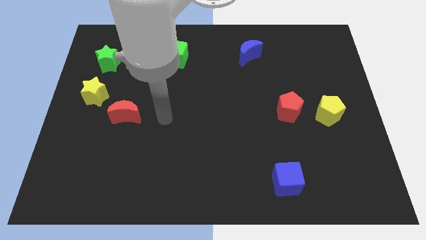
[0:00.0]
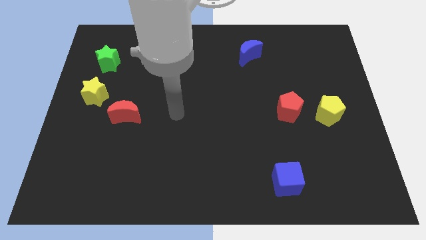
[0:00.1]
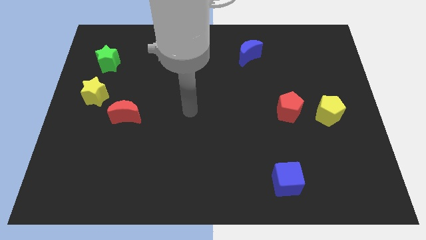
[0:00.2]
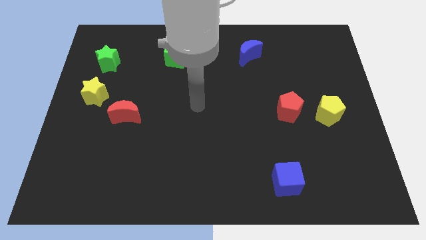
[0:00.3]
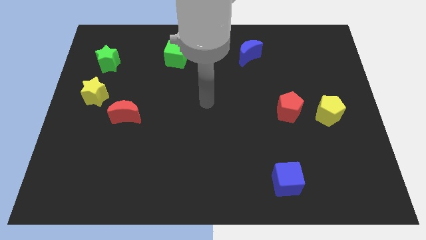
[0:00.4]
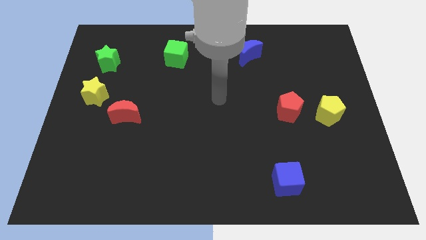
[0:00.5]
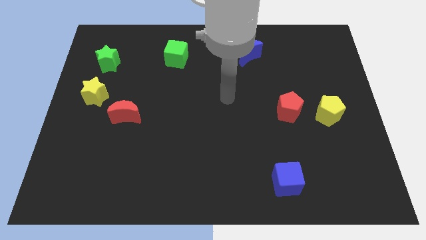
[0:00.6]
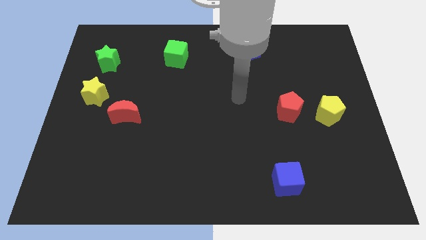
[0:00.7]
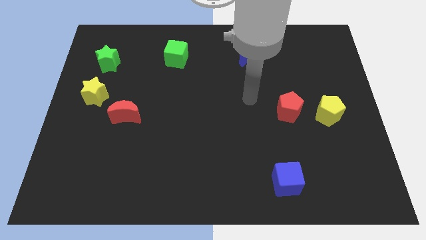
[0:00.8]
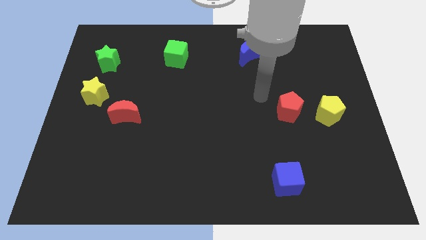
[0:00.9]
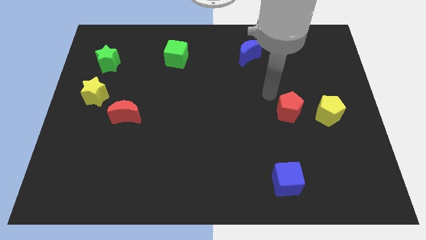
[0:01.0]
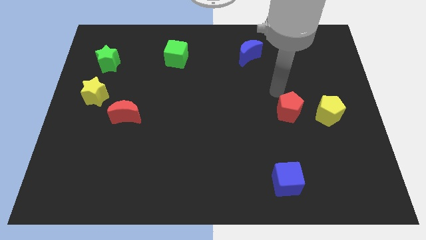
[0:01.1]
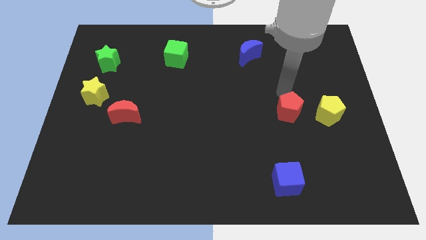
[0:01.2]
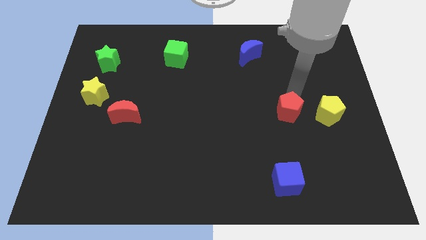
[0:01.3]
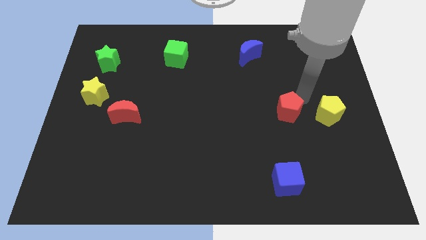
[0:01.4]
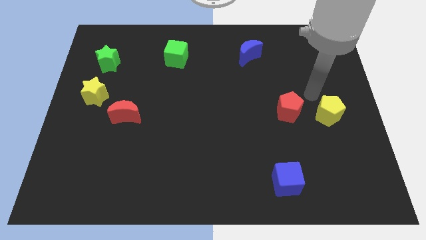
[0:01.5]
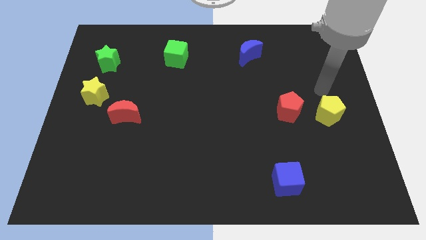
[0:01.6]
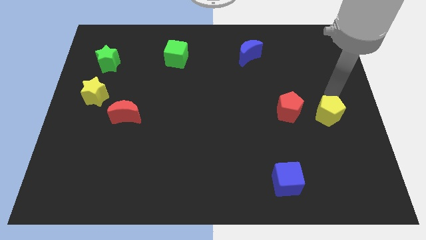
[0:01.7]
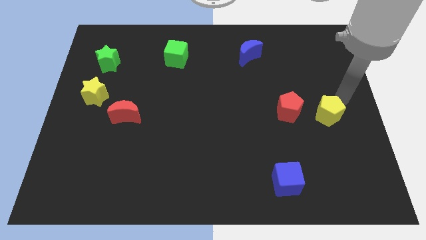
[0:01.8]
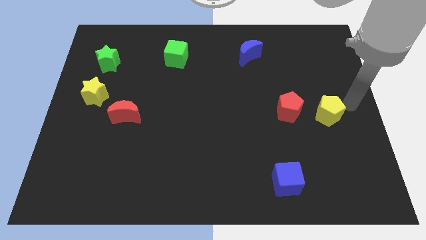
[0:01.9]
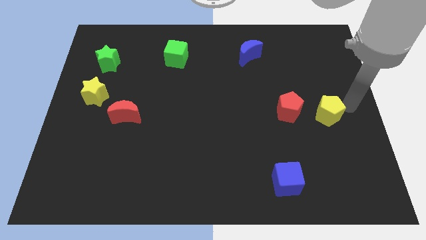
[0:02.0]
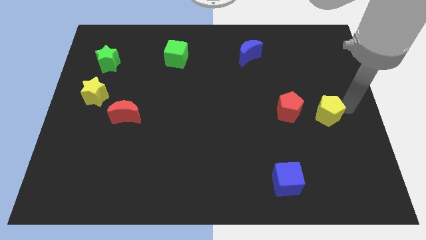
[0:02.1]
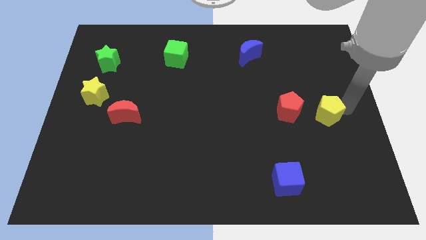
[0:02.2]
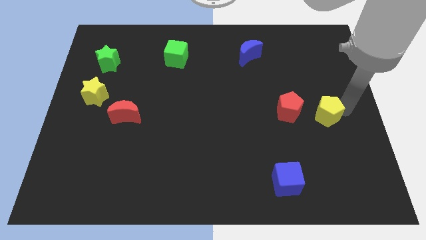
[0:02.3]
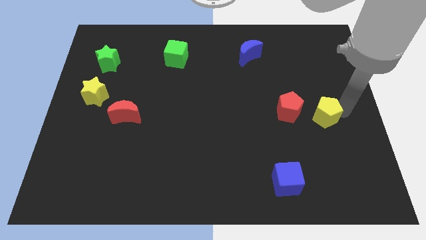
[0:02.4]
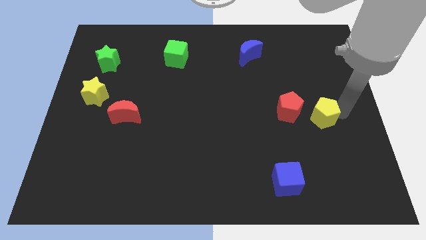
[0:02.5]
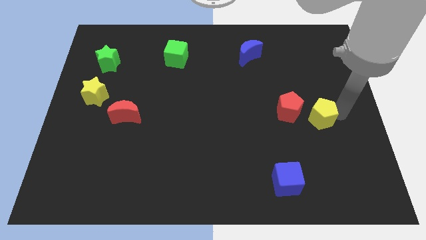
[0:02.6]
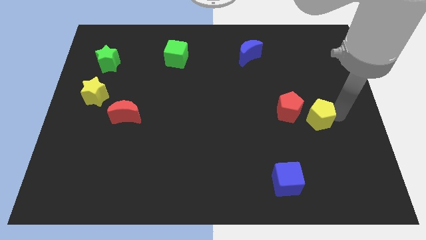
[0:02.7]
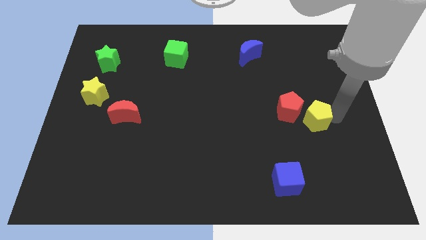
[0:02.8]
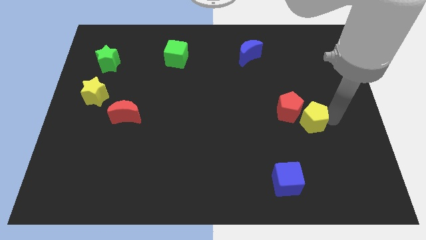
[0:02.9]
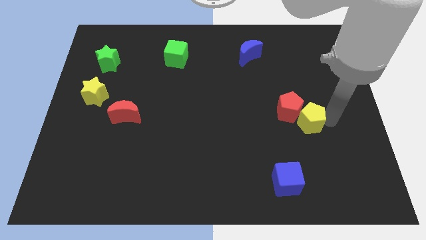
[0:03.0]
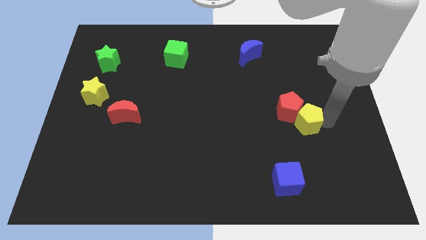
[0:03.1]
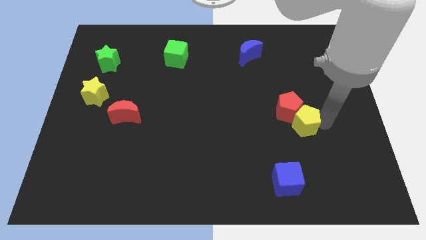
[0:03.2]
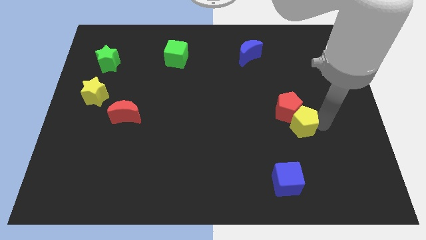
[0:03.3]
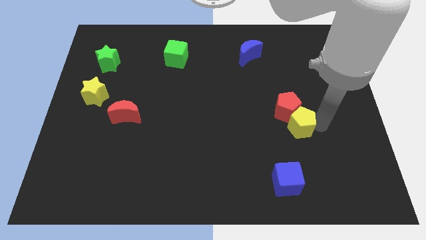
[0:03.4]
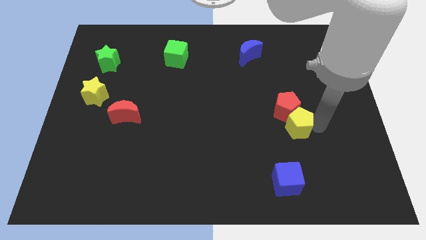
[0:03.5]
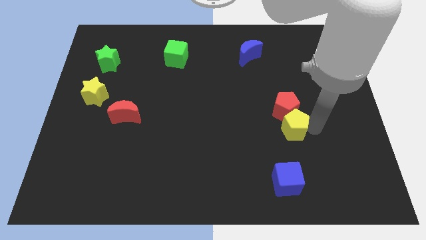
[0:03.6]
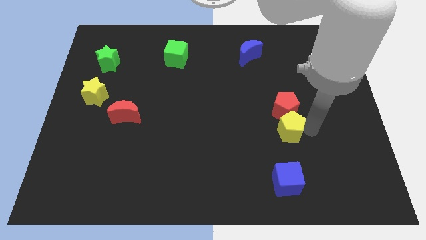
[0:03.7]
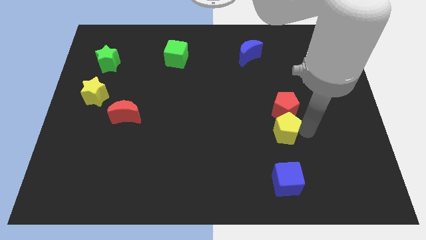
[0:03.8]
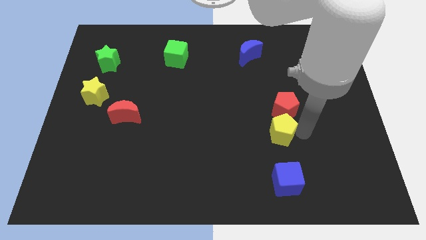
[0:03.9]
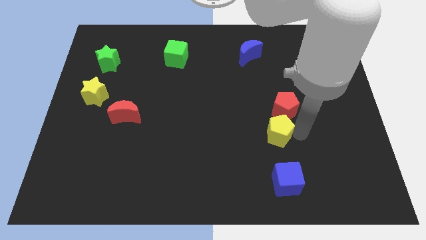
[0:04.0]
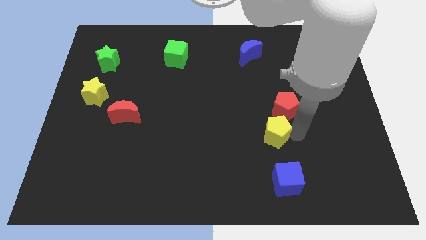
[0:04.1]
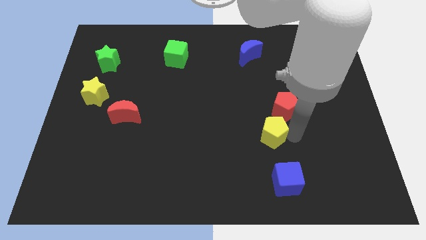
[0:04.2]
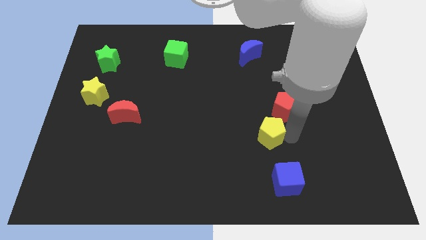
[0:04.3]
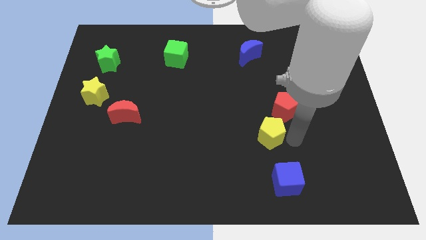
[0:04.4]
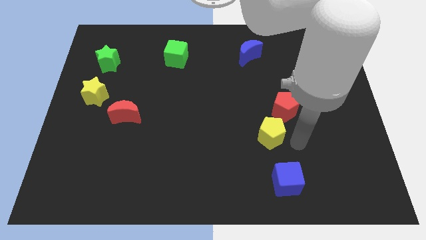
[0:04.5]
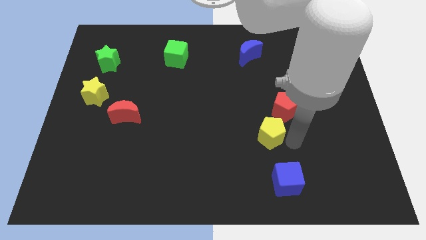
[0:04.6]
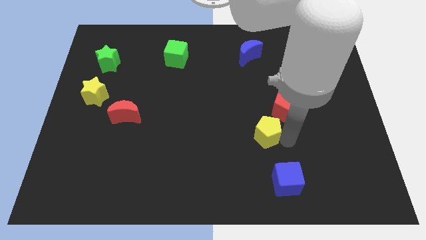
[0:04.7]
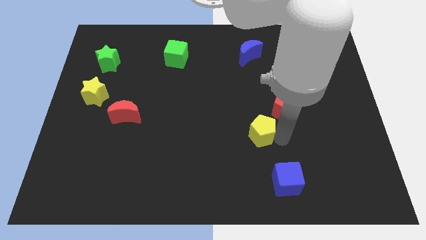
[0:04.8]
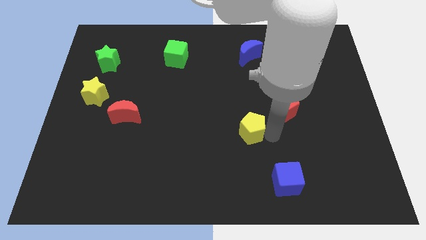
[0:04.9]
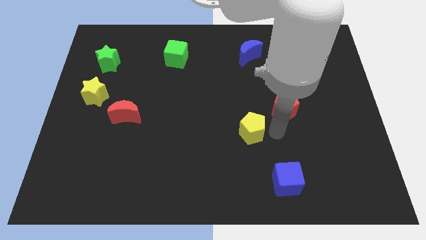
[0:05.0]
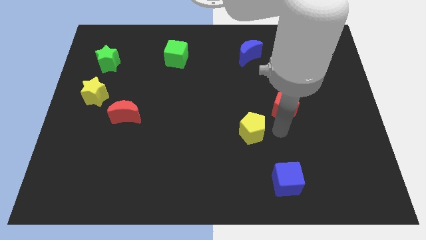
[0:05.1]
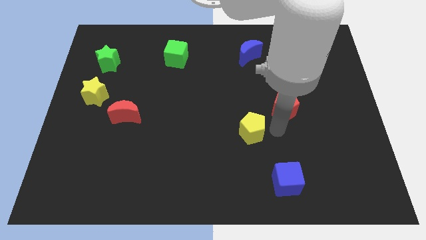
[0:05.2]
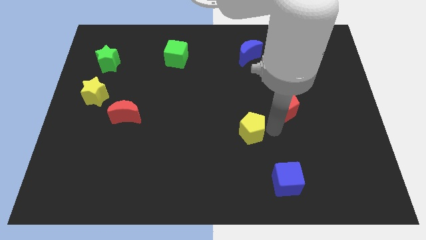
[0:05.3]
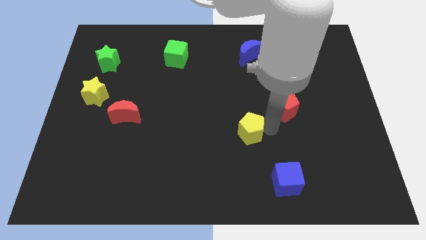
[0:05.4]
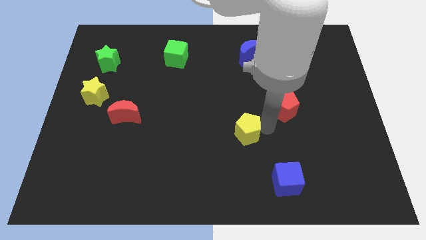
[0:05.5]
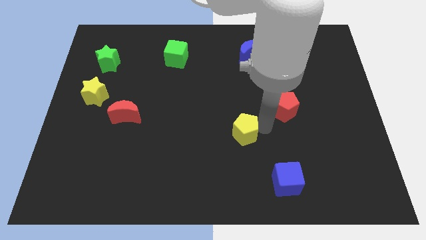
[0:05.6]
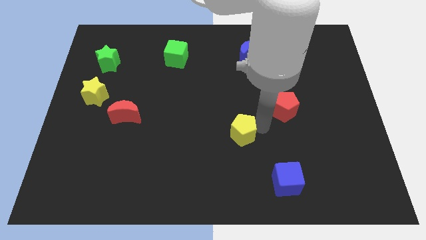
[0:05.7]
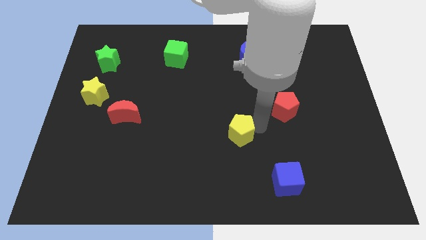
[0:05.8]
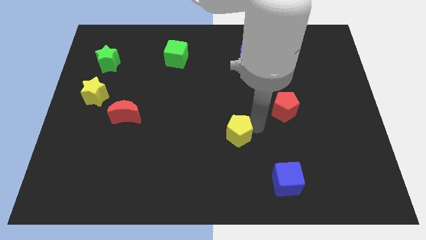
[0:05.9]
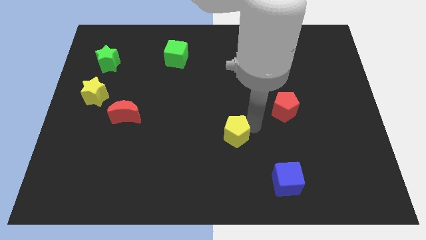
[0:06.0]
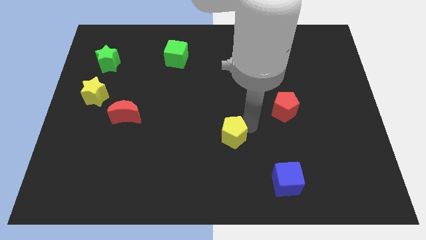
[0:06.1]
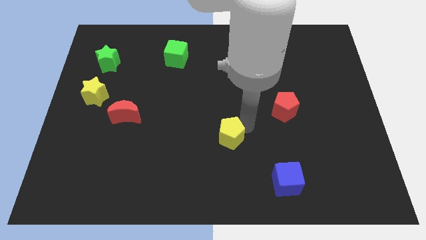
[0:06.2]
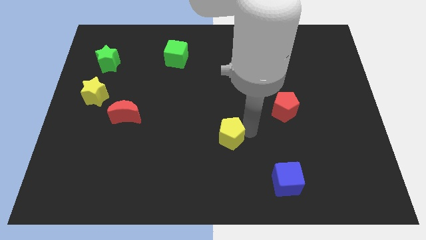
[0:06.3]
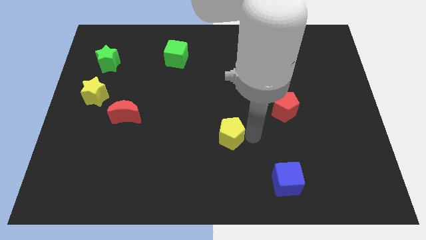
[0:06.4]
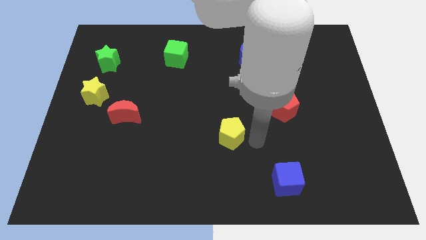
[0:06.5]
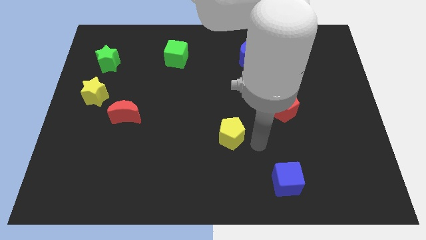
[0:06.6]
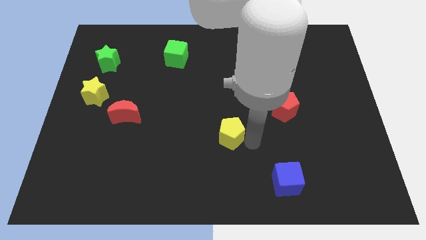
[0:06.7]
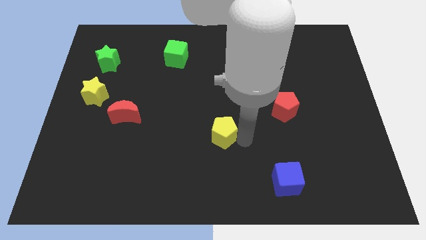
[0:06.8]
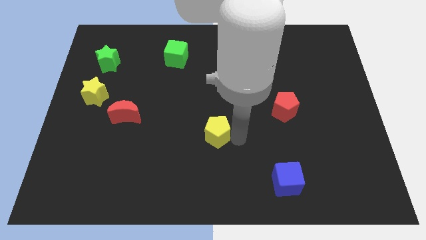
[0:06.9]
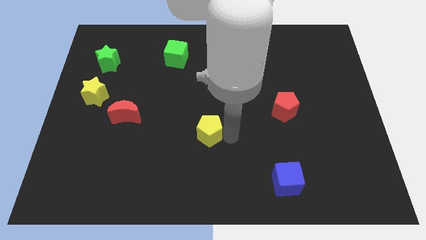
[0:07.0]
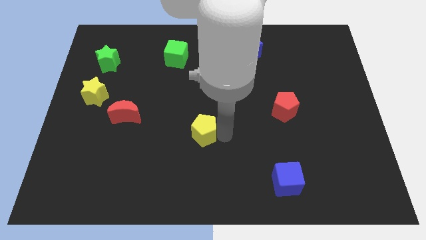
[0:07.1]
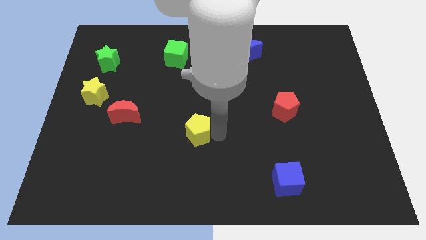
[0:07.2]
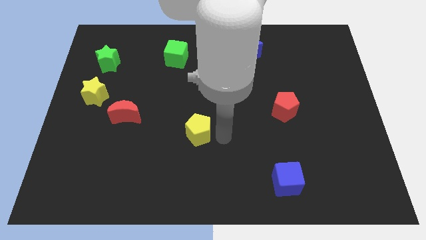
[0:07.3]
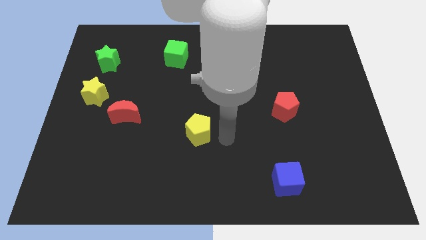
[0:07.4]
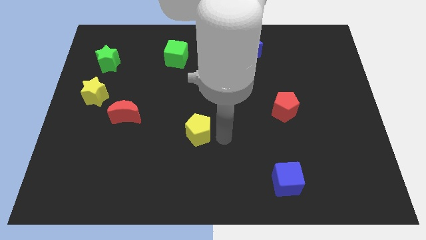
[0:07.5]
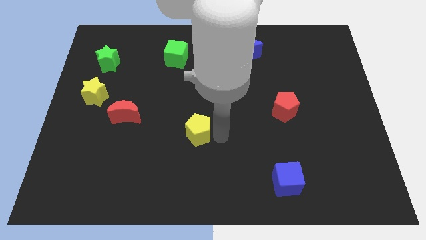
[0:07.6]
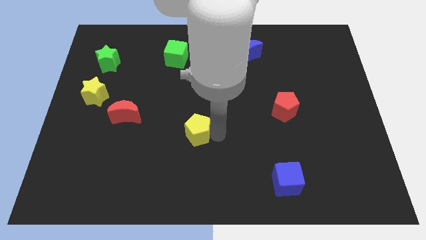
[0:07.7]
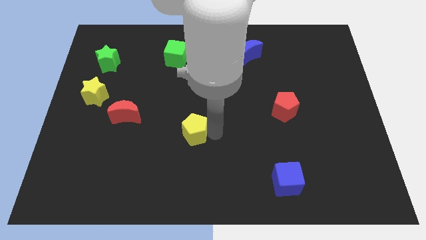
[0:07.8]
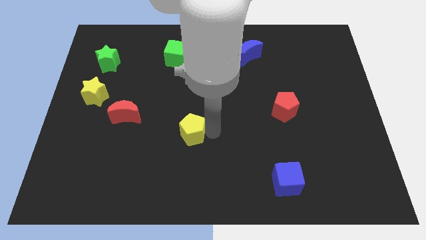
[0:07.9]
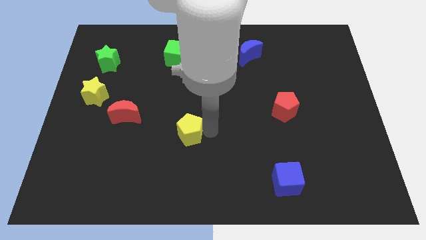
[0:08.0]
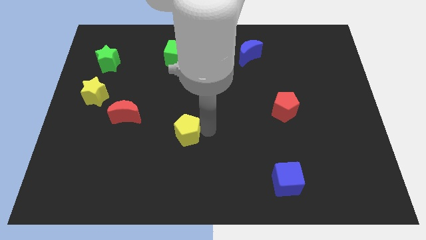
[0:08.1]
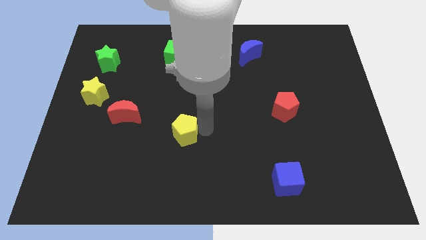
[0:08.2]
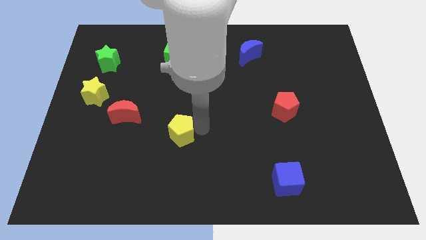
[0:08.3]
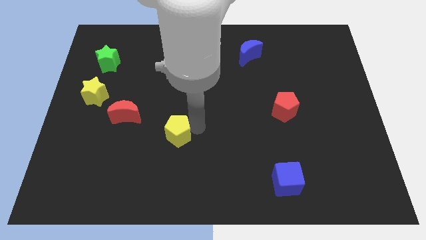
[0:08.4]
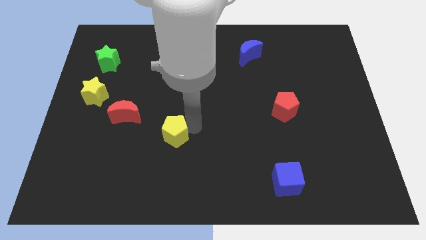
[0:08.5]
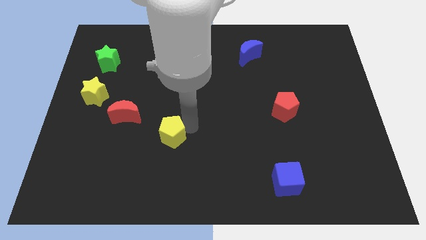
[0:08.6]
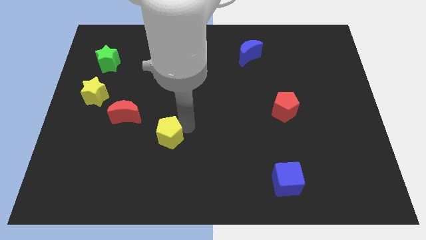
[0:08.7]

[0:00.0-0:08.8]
move the yellow pentagon to the bottom right of the red moon
